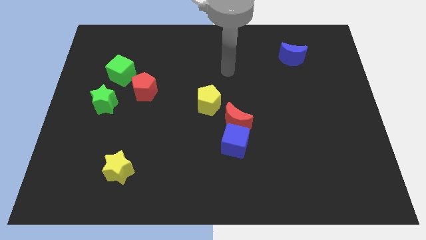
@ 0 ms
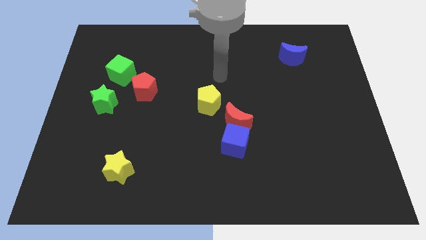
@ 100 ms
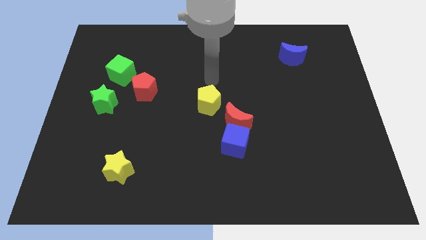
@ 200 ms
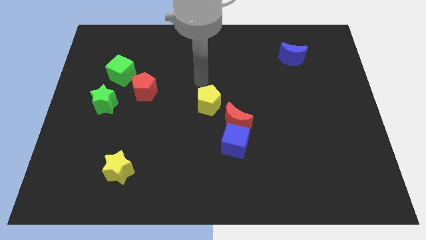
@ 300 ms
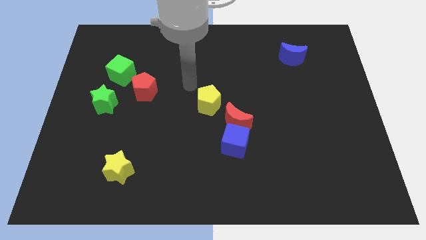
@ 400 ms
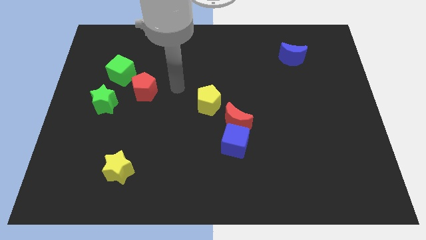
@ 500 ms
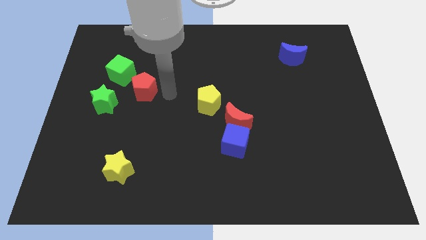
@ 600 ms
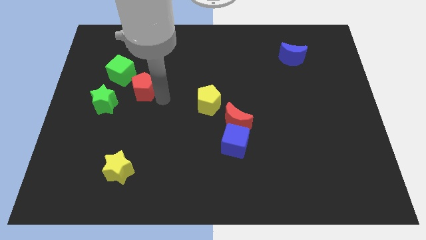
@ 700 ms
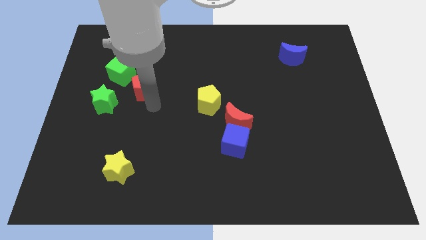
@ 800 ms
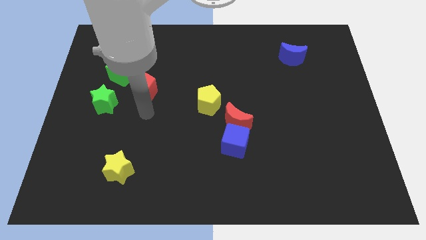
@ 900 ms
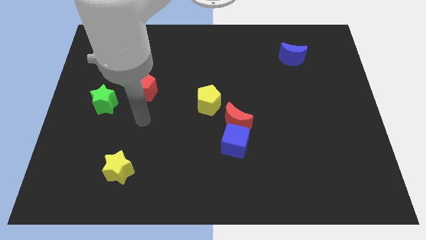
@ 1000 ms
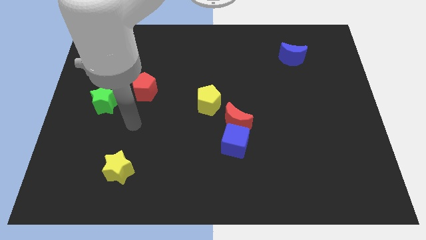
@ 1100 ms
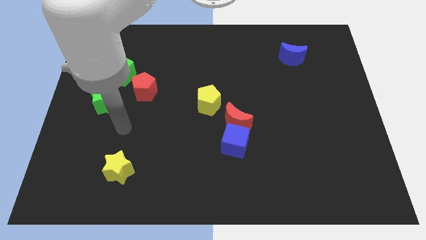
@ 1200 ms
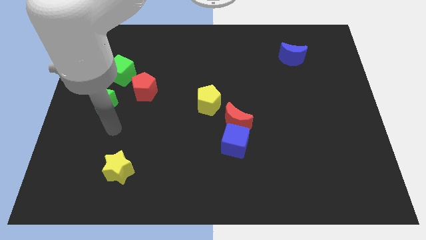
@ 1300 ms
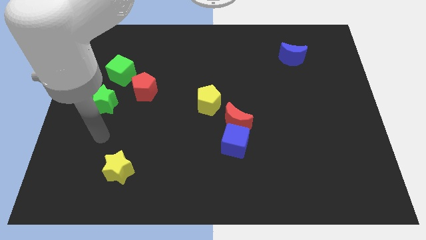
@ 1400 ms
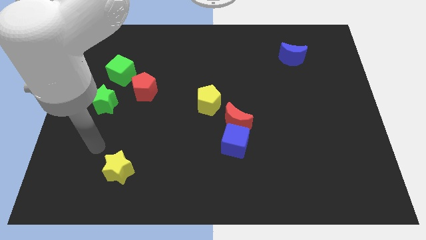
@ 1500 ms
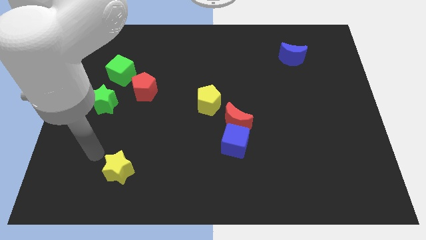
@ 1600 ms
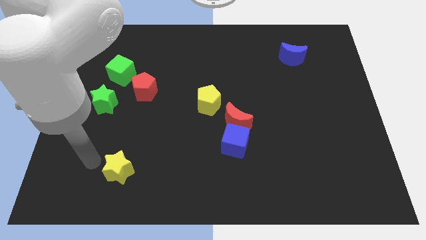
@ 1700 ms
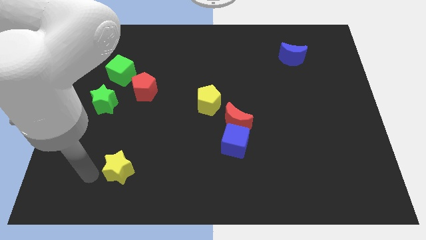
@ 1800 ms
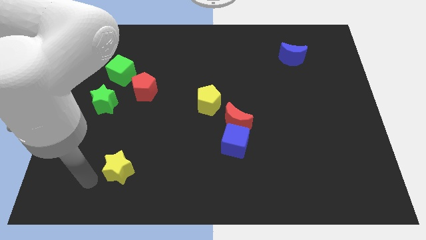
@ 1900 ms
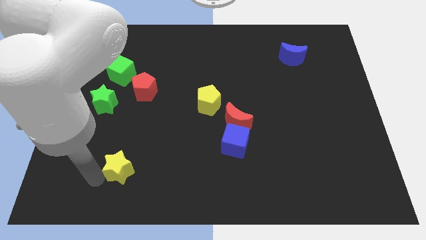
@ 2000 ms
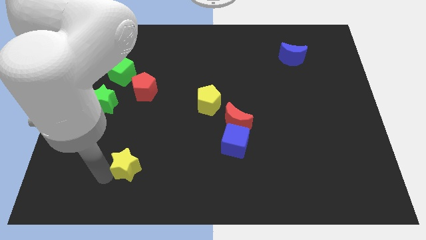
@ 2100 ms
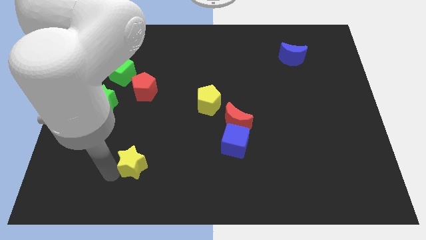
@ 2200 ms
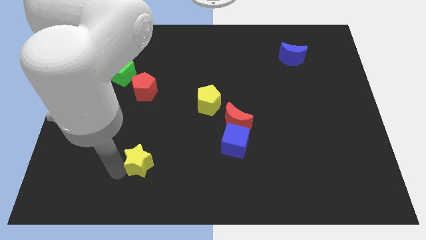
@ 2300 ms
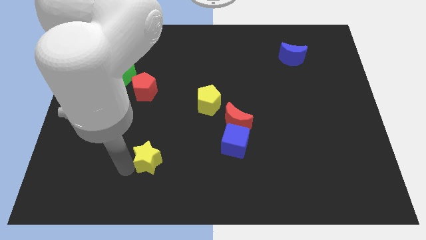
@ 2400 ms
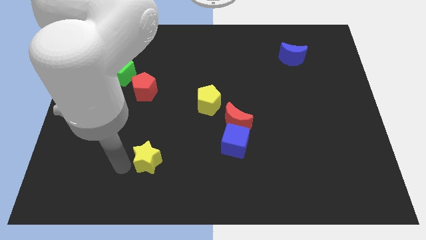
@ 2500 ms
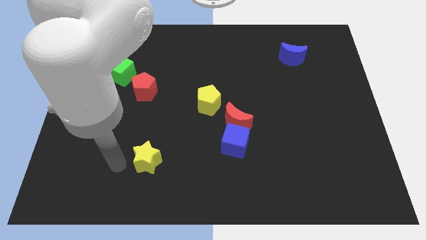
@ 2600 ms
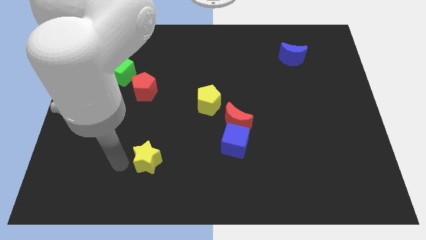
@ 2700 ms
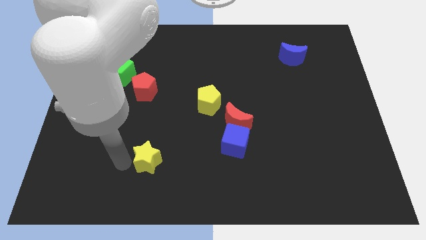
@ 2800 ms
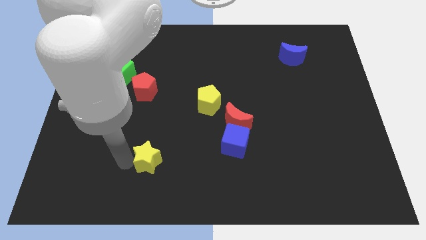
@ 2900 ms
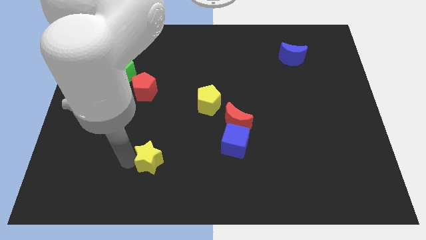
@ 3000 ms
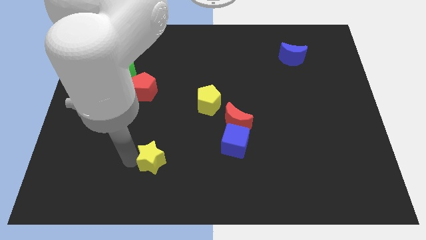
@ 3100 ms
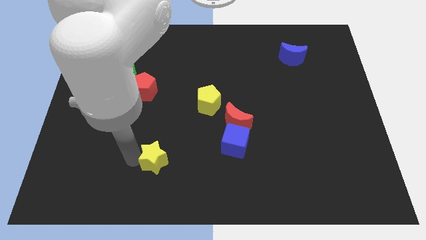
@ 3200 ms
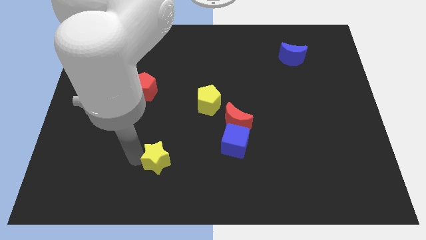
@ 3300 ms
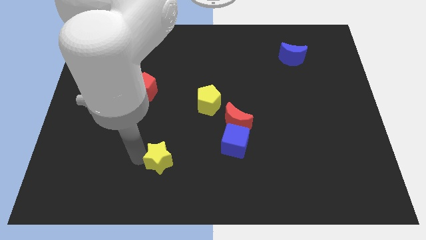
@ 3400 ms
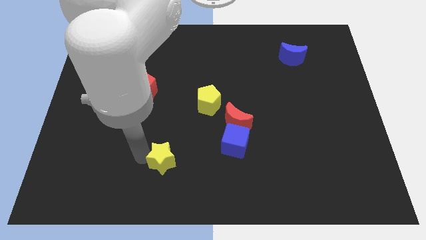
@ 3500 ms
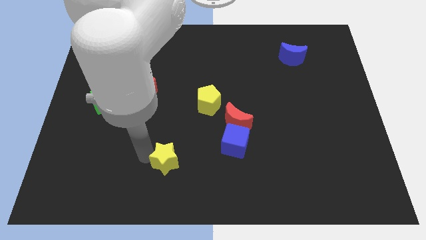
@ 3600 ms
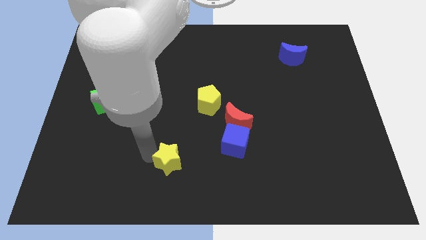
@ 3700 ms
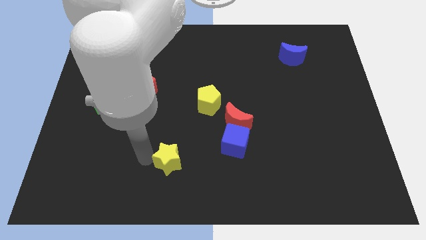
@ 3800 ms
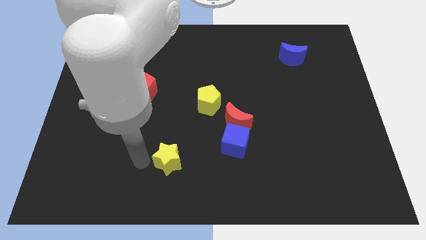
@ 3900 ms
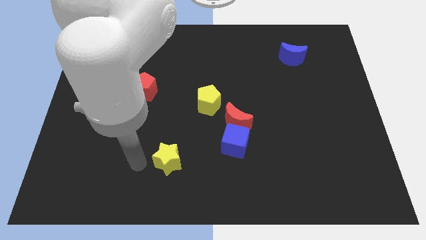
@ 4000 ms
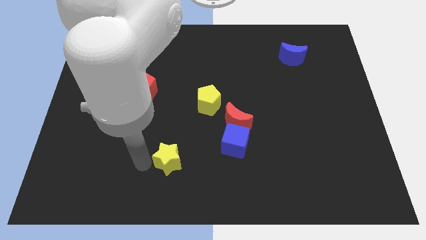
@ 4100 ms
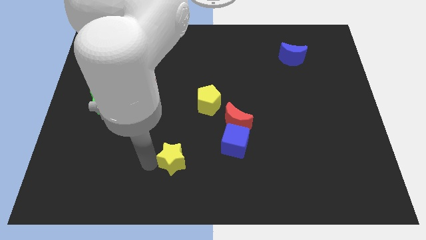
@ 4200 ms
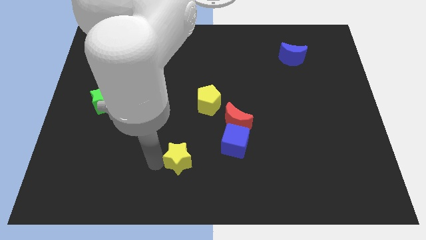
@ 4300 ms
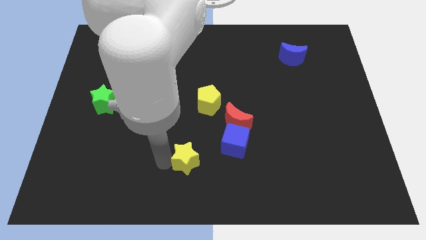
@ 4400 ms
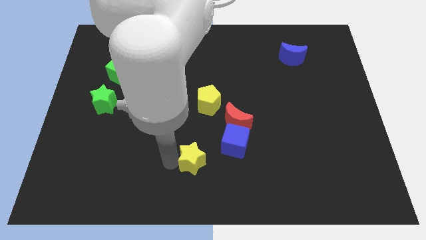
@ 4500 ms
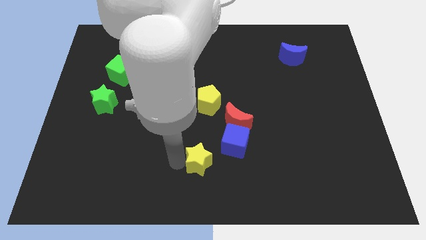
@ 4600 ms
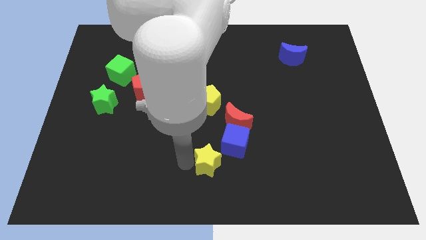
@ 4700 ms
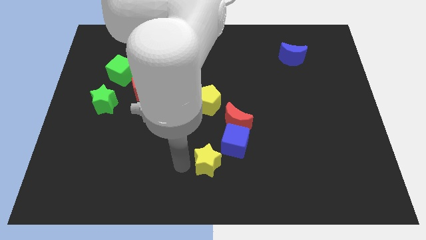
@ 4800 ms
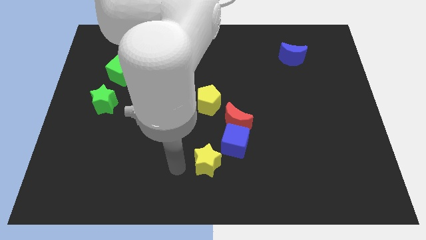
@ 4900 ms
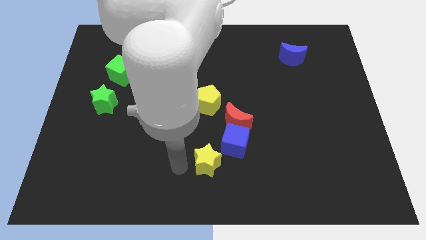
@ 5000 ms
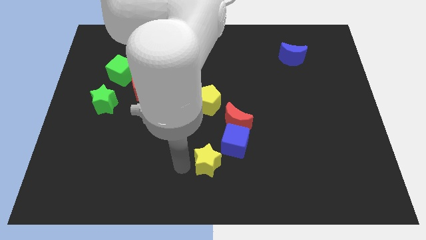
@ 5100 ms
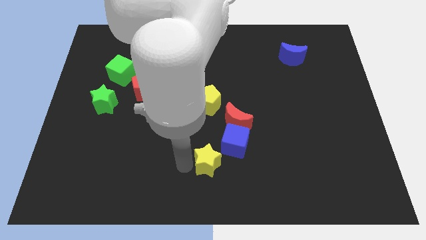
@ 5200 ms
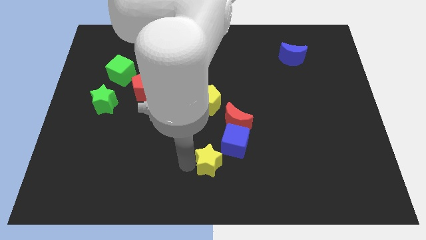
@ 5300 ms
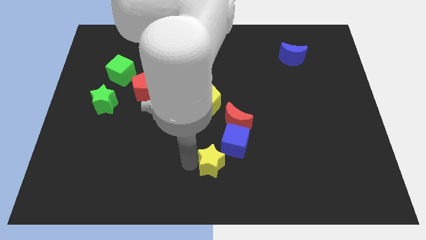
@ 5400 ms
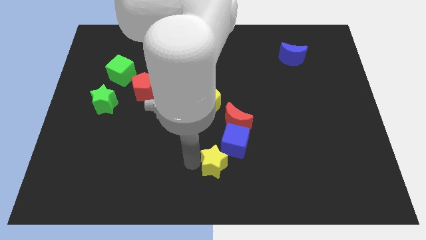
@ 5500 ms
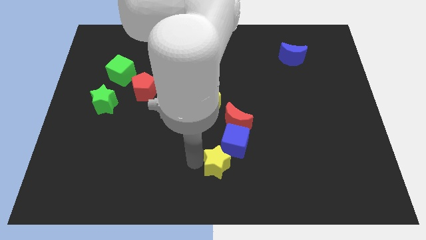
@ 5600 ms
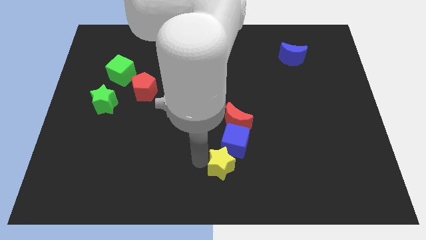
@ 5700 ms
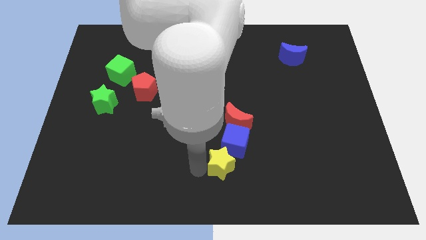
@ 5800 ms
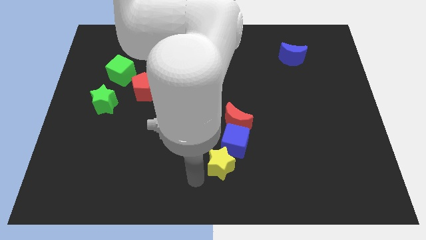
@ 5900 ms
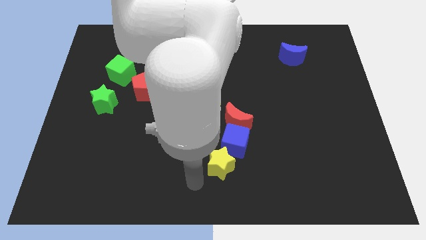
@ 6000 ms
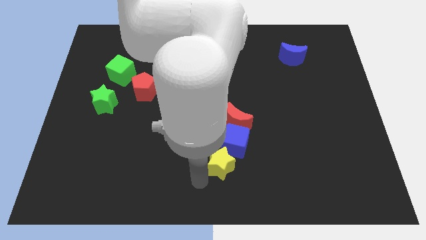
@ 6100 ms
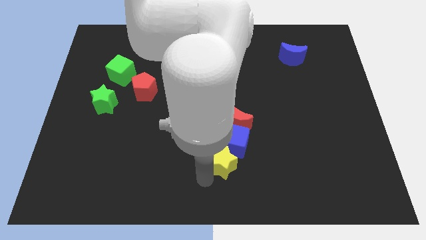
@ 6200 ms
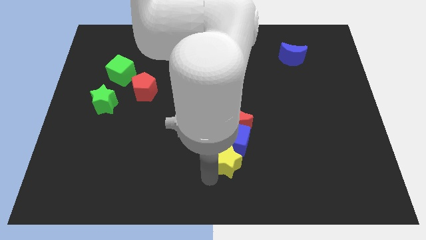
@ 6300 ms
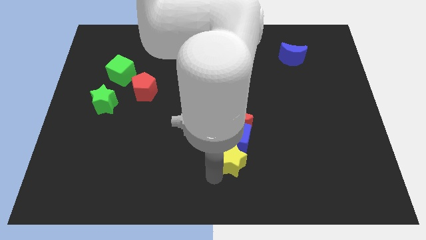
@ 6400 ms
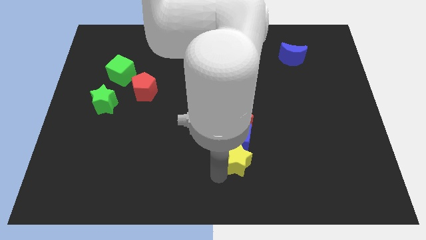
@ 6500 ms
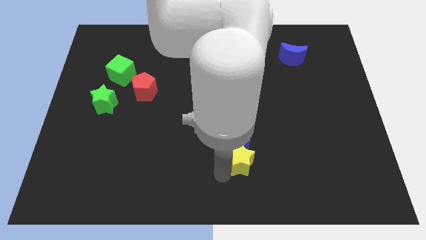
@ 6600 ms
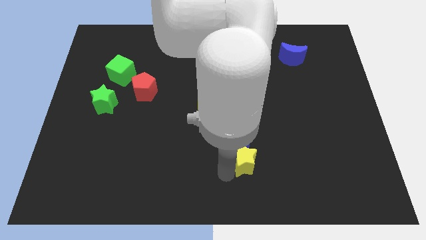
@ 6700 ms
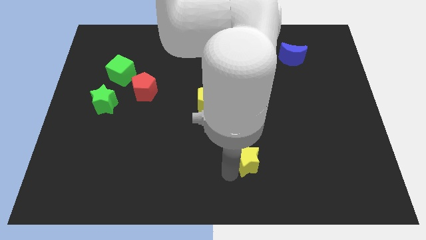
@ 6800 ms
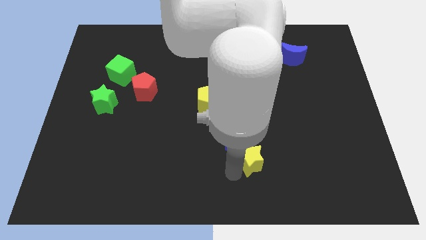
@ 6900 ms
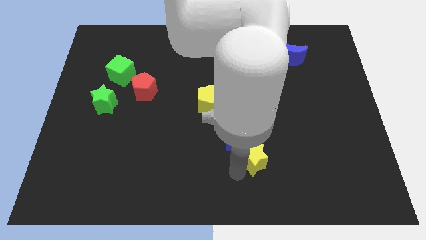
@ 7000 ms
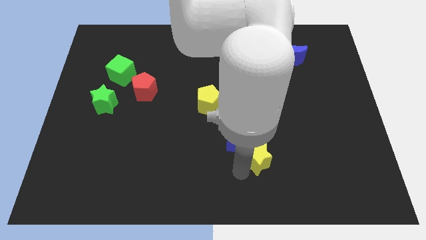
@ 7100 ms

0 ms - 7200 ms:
move the yellow star to the bottom right of the red moon

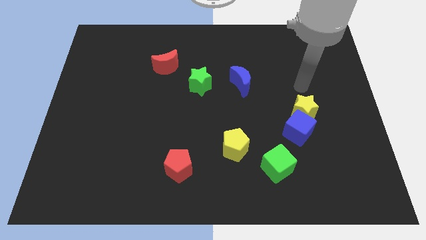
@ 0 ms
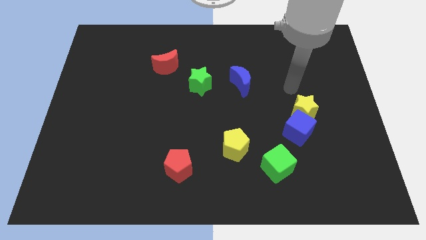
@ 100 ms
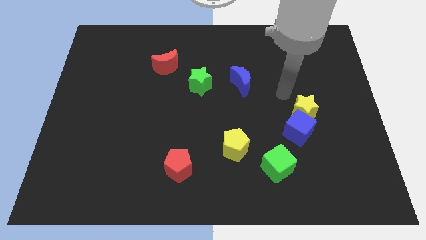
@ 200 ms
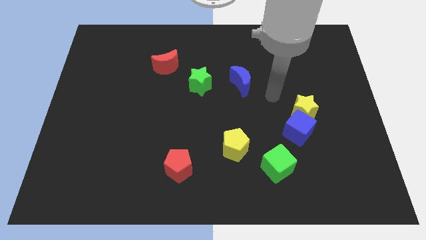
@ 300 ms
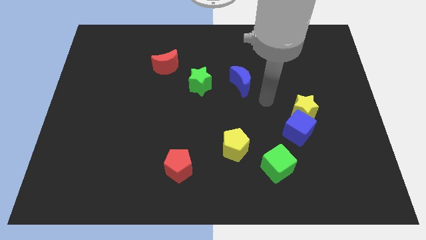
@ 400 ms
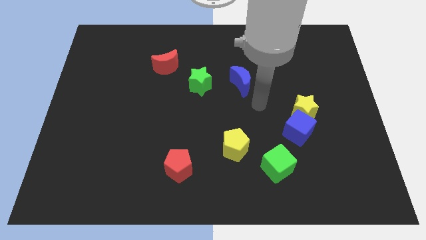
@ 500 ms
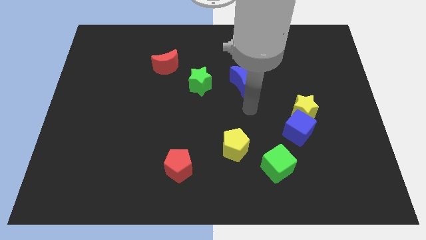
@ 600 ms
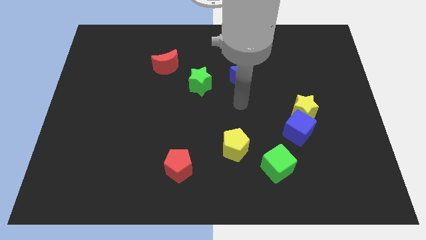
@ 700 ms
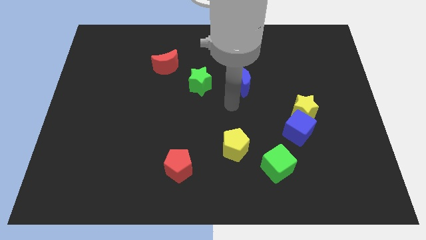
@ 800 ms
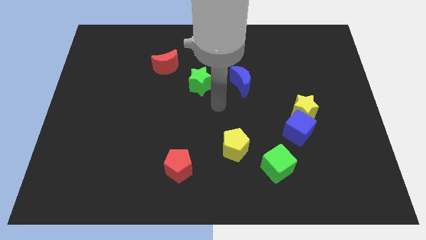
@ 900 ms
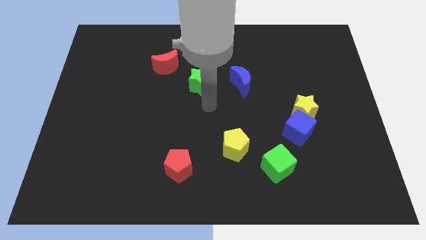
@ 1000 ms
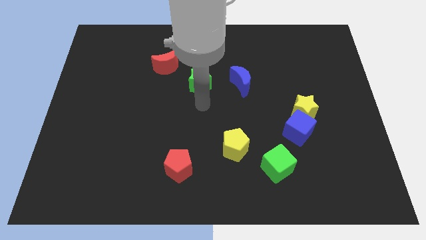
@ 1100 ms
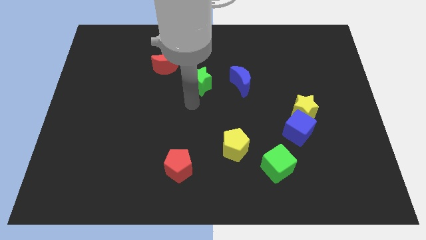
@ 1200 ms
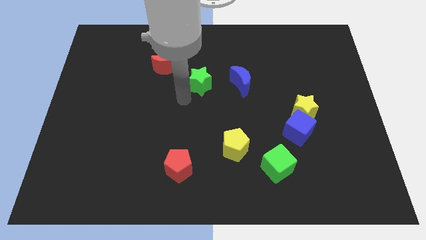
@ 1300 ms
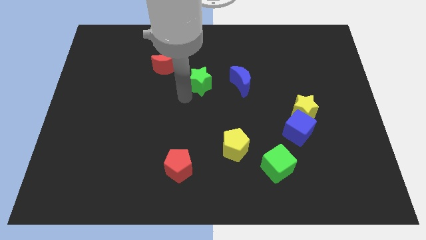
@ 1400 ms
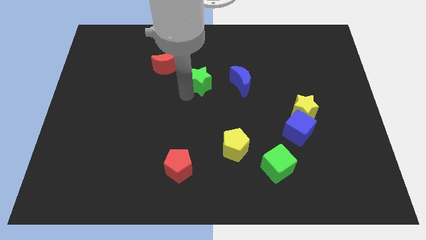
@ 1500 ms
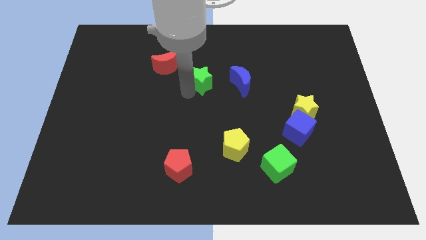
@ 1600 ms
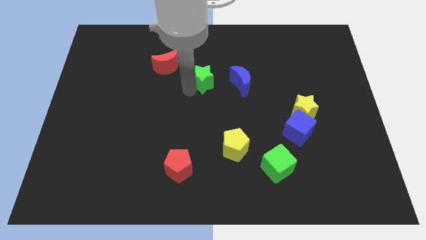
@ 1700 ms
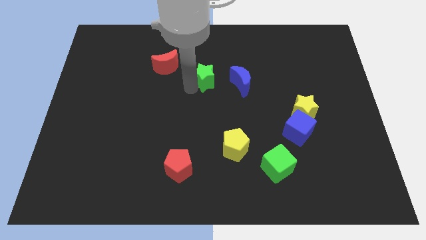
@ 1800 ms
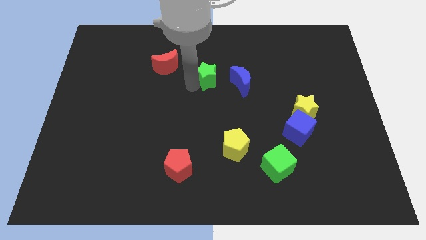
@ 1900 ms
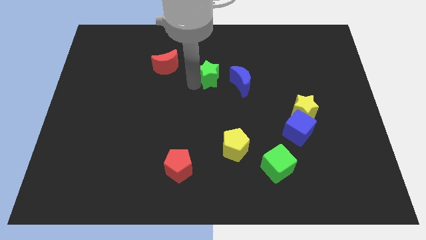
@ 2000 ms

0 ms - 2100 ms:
slide the green star to the top left side of the blue moon
